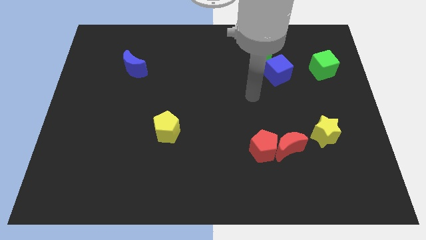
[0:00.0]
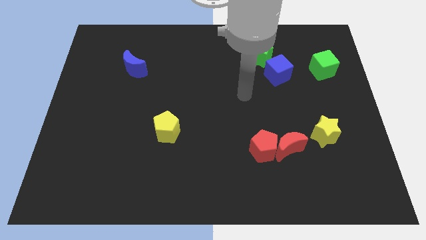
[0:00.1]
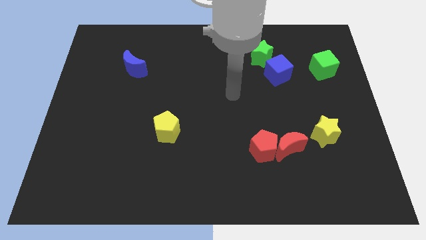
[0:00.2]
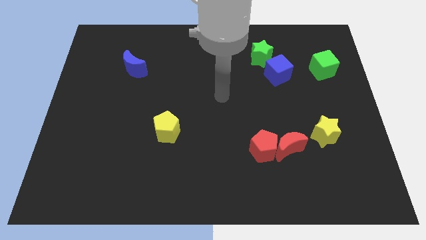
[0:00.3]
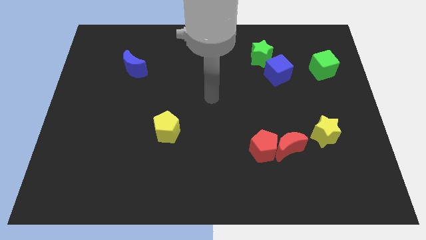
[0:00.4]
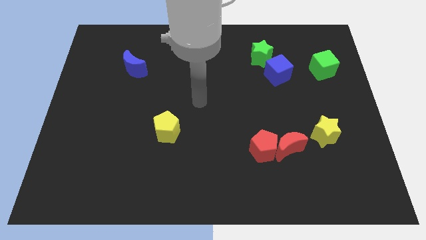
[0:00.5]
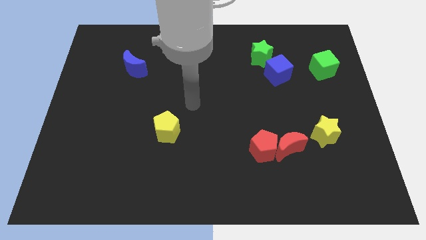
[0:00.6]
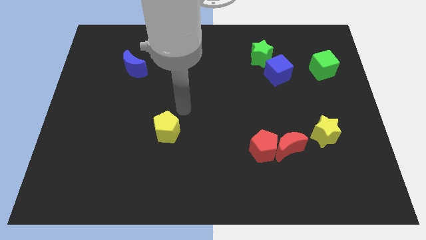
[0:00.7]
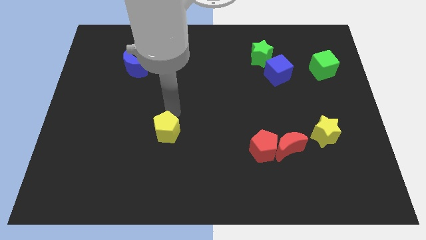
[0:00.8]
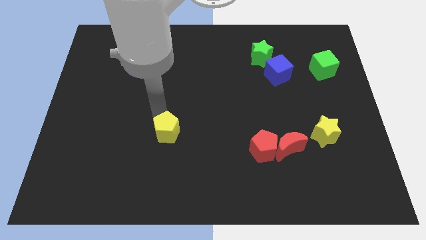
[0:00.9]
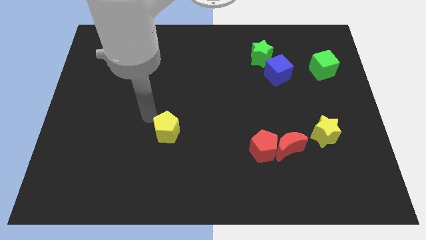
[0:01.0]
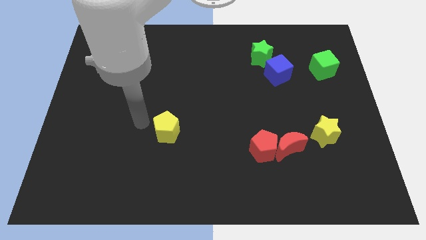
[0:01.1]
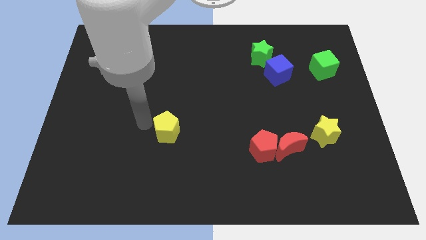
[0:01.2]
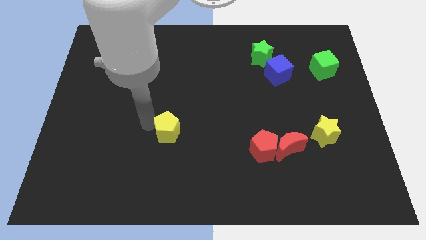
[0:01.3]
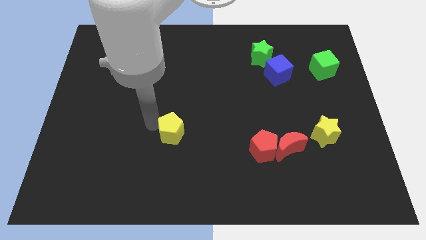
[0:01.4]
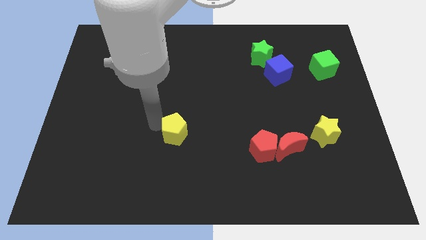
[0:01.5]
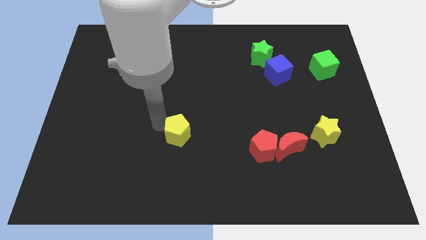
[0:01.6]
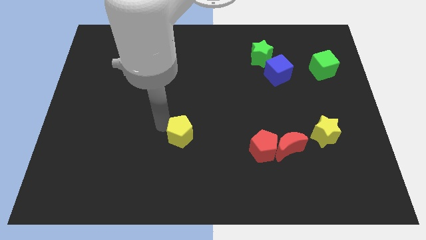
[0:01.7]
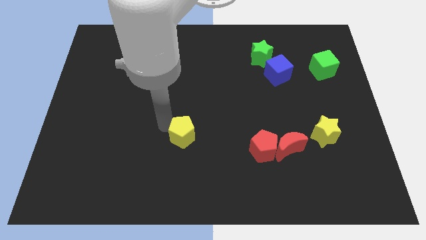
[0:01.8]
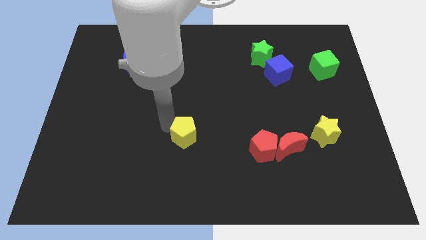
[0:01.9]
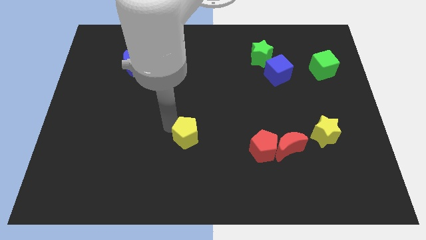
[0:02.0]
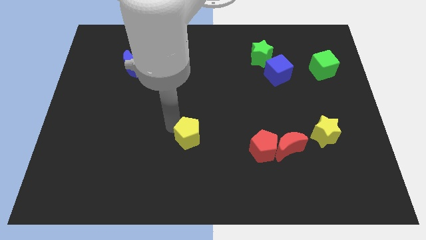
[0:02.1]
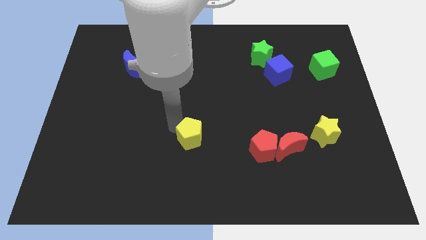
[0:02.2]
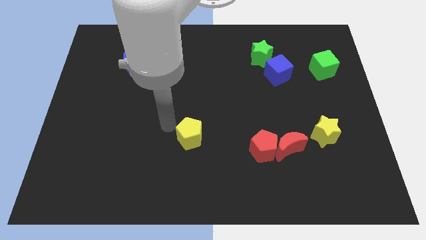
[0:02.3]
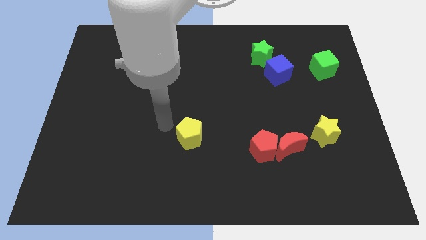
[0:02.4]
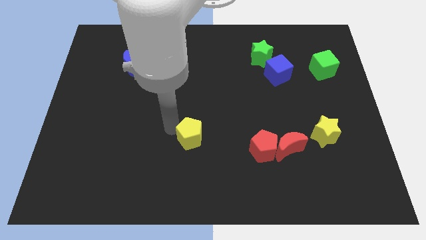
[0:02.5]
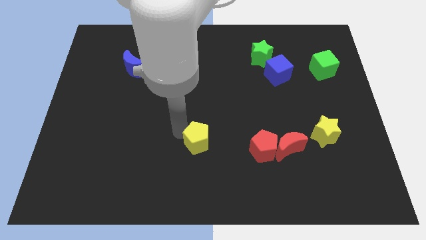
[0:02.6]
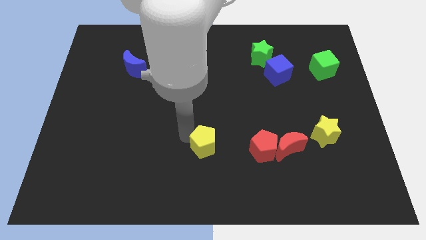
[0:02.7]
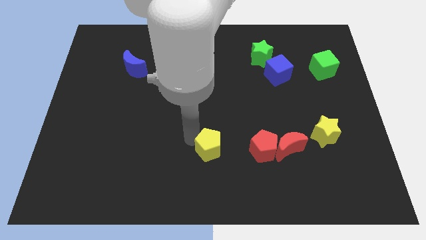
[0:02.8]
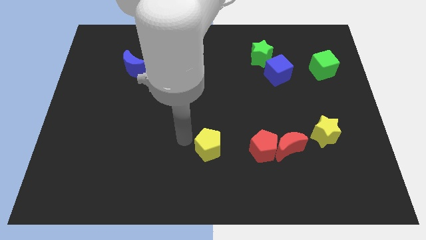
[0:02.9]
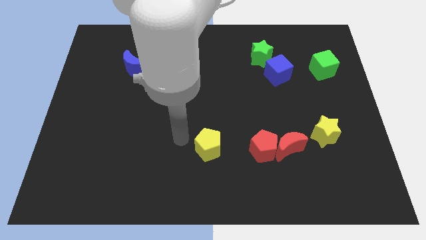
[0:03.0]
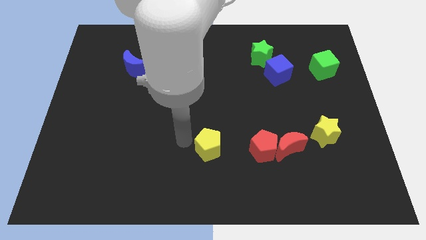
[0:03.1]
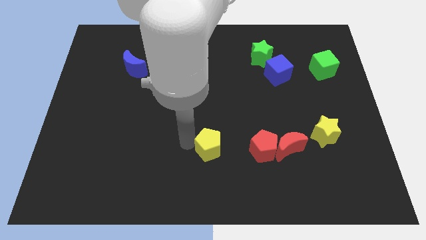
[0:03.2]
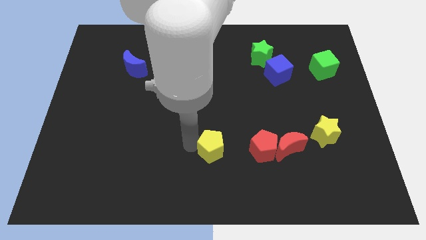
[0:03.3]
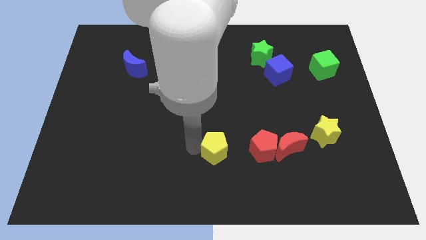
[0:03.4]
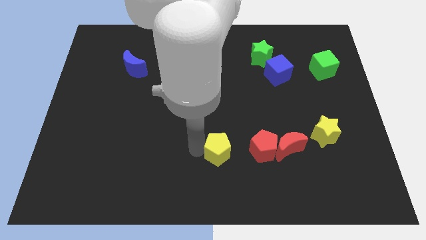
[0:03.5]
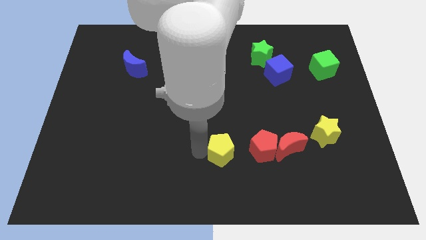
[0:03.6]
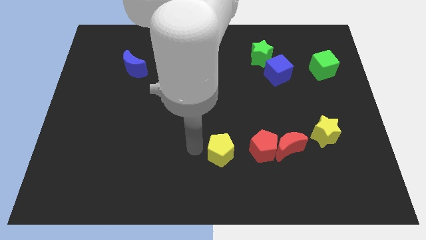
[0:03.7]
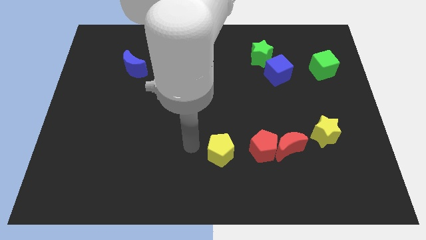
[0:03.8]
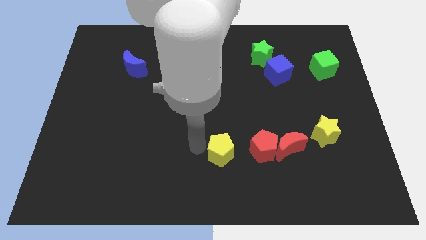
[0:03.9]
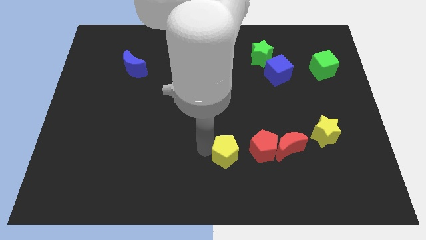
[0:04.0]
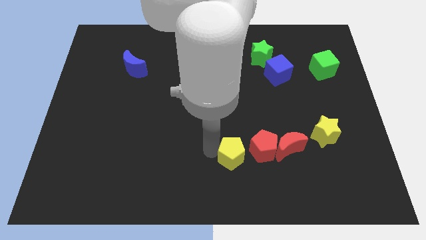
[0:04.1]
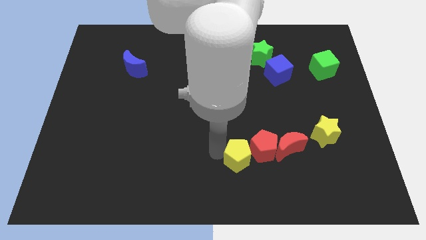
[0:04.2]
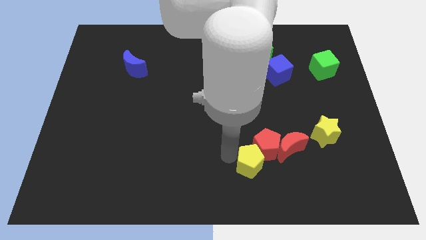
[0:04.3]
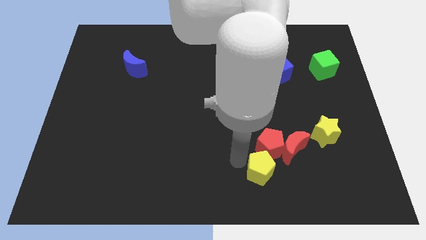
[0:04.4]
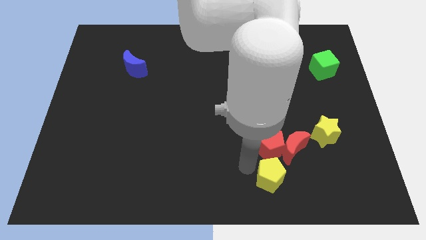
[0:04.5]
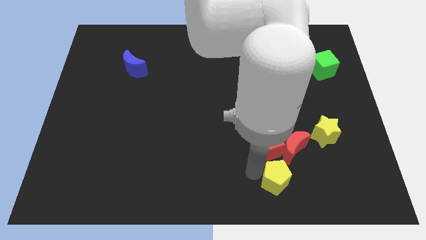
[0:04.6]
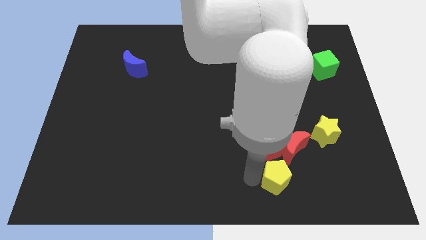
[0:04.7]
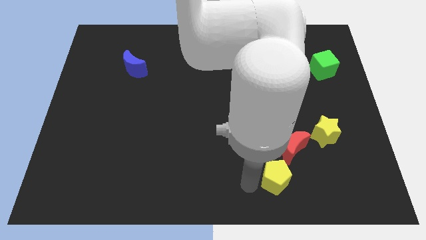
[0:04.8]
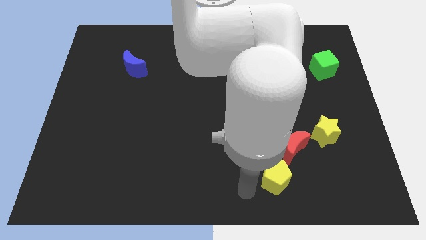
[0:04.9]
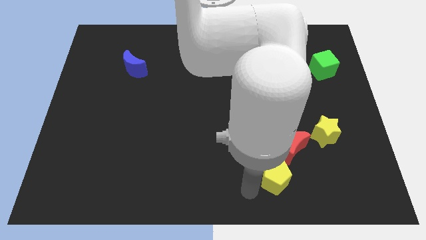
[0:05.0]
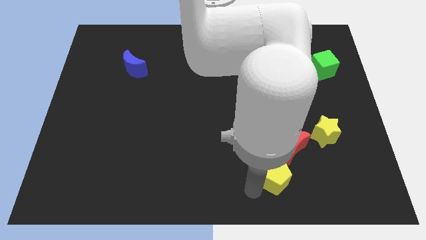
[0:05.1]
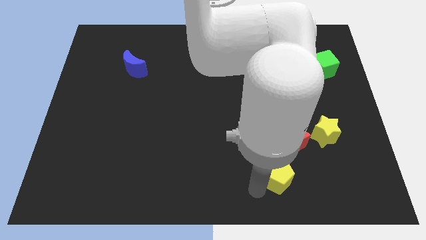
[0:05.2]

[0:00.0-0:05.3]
slide the yellow pentagon to the bottom right of the red pentagon

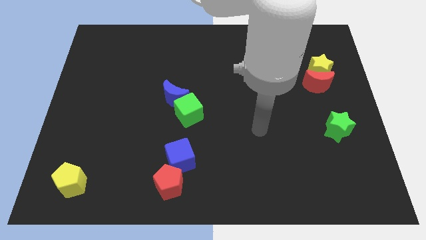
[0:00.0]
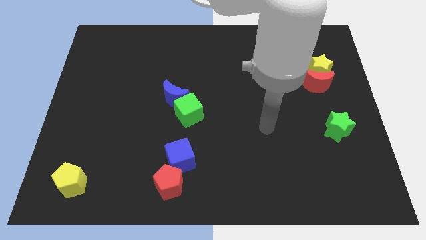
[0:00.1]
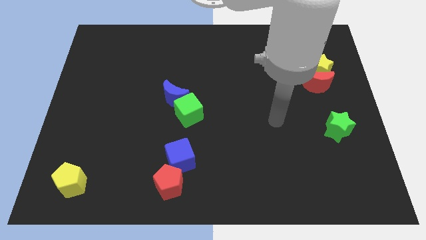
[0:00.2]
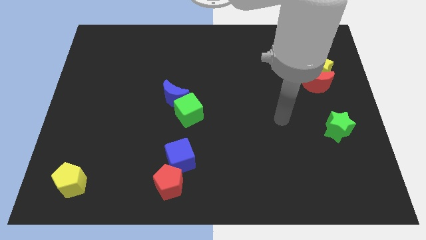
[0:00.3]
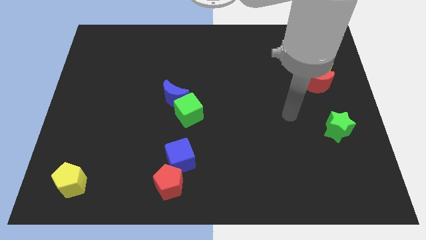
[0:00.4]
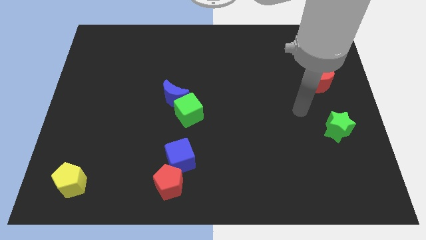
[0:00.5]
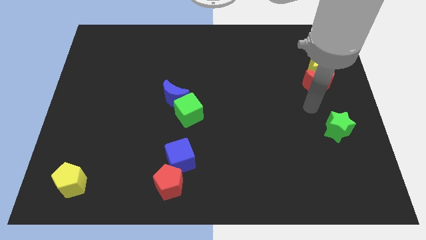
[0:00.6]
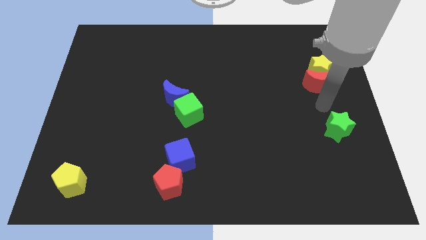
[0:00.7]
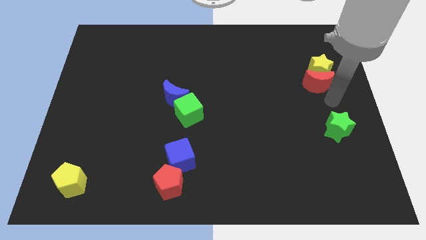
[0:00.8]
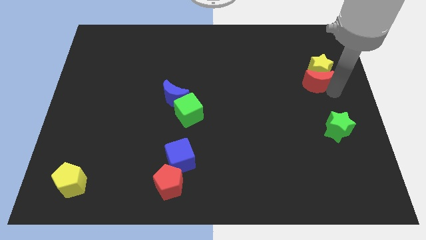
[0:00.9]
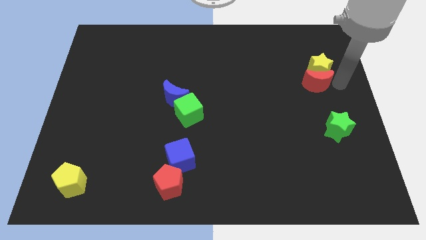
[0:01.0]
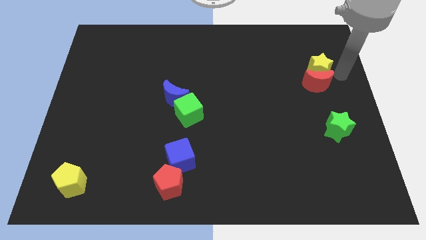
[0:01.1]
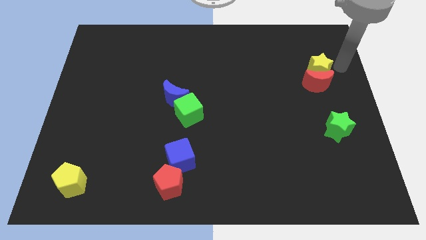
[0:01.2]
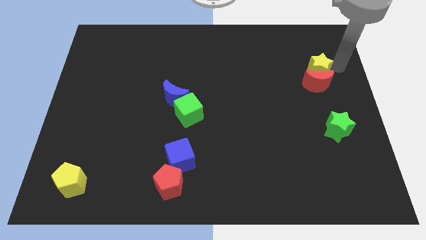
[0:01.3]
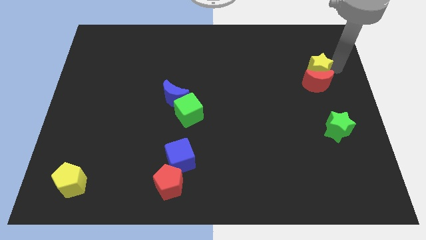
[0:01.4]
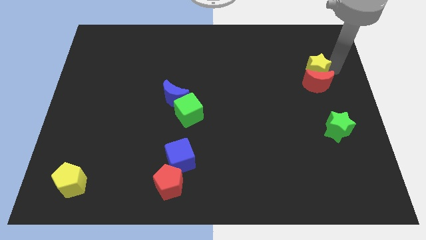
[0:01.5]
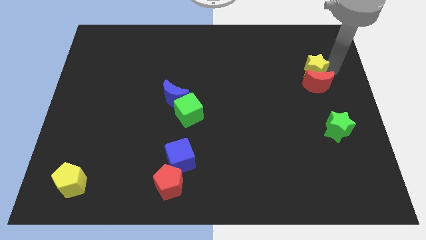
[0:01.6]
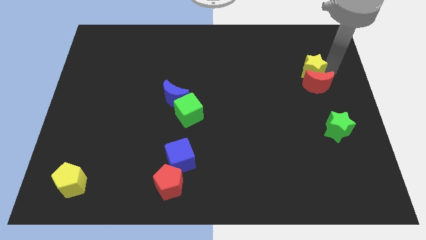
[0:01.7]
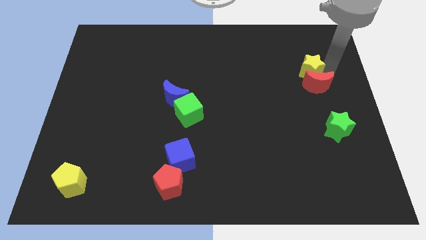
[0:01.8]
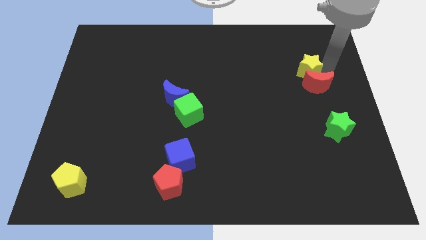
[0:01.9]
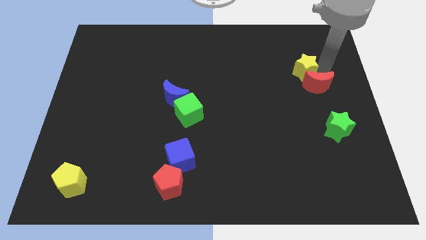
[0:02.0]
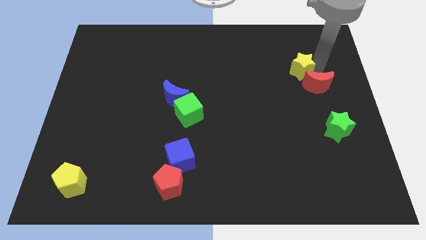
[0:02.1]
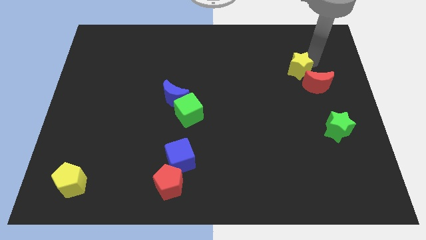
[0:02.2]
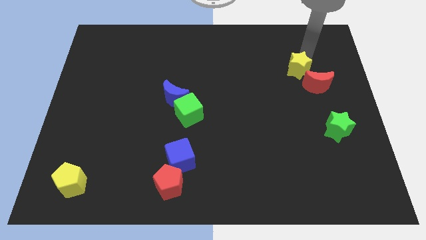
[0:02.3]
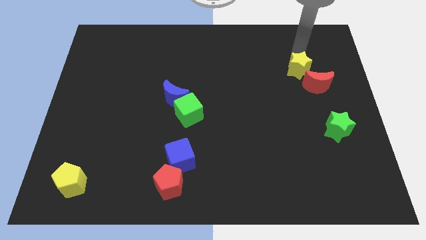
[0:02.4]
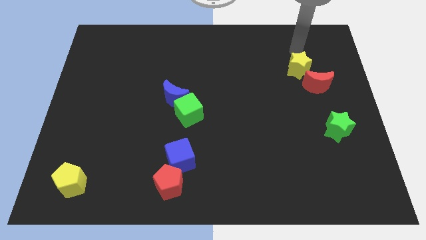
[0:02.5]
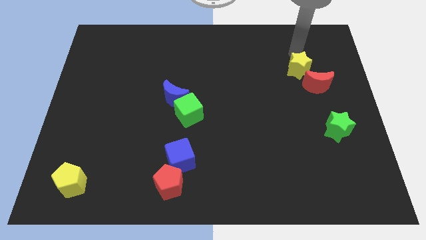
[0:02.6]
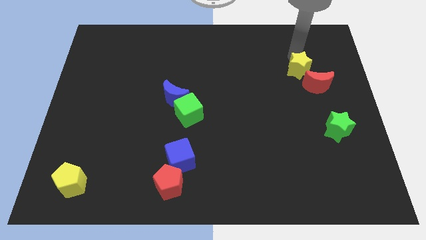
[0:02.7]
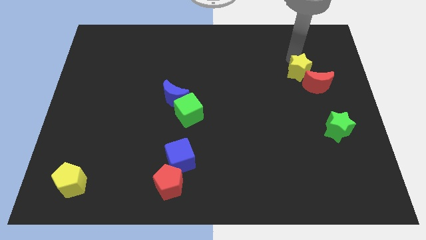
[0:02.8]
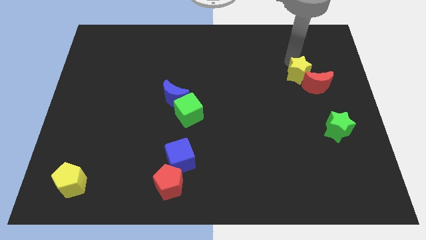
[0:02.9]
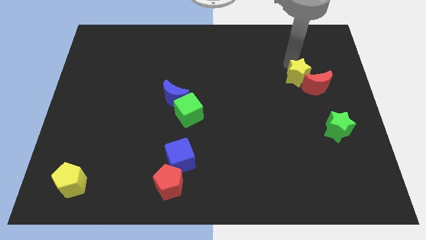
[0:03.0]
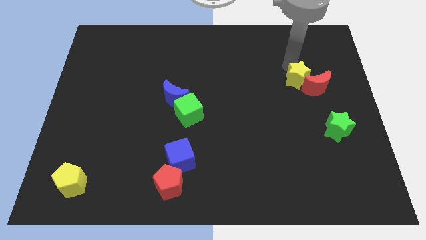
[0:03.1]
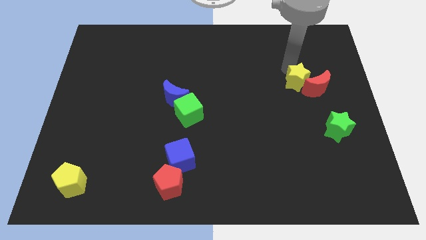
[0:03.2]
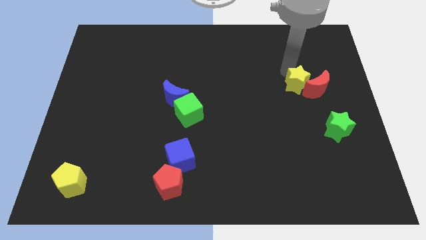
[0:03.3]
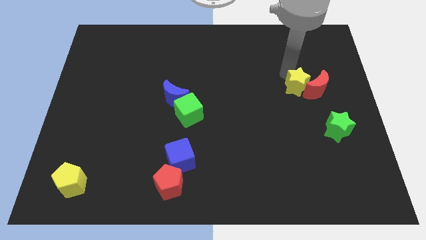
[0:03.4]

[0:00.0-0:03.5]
slide the yellow star to the bottom left of the red moon
